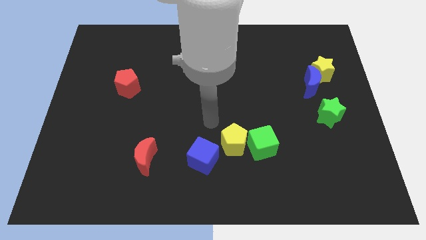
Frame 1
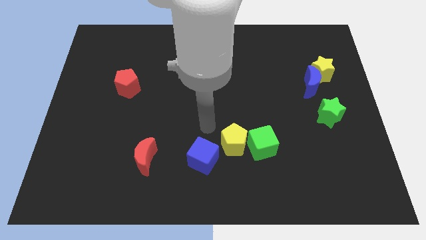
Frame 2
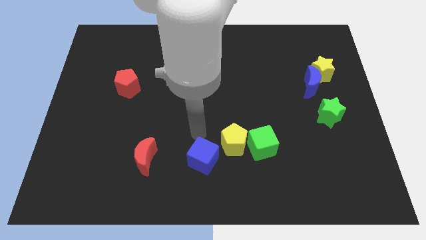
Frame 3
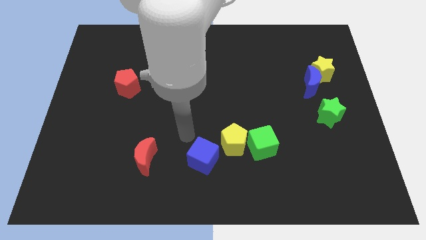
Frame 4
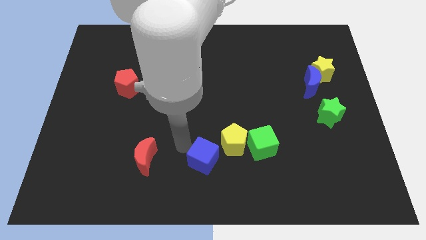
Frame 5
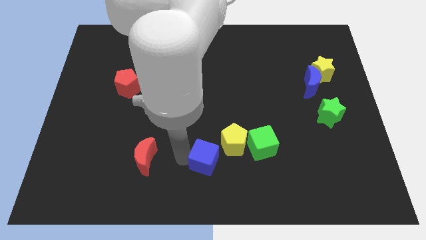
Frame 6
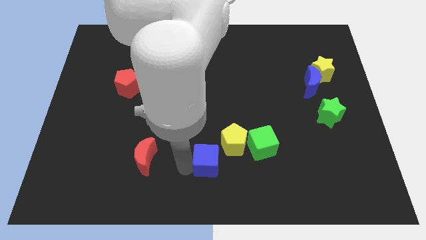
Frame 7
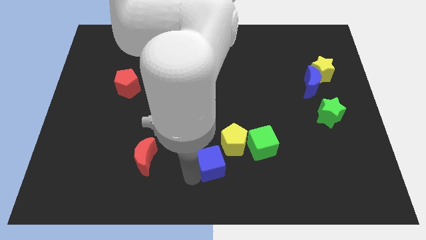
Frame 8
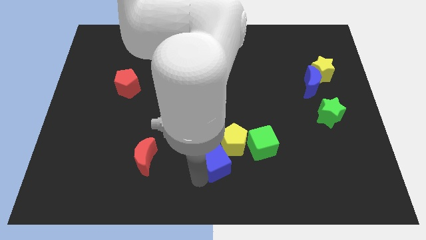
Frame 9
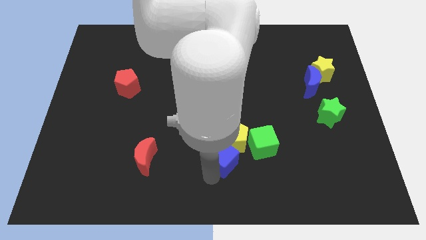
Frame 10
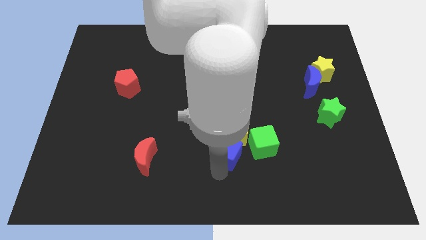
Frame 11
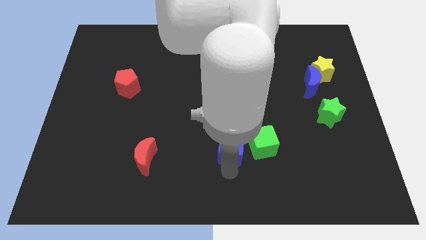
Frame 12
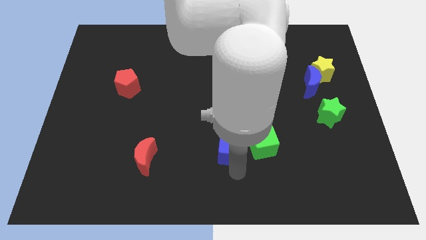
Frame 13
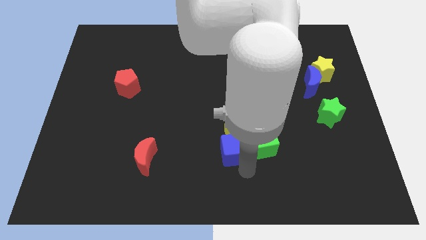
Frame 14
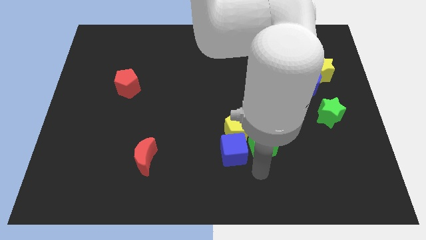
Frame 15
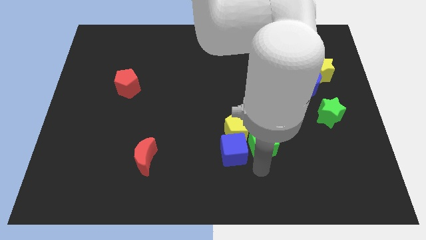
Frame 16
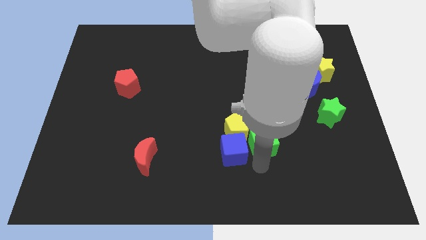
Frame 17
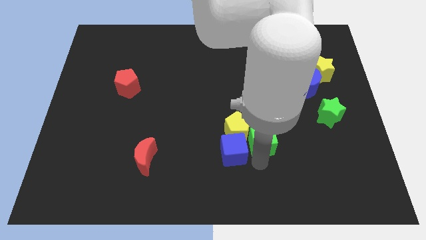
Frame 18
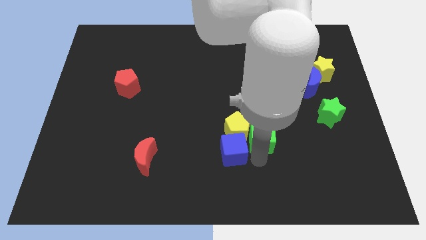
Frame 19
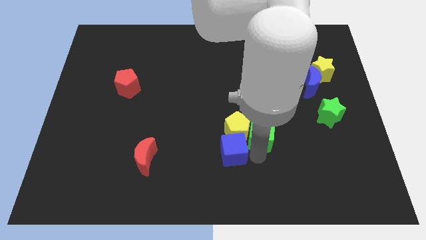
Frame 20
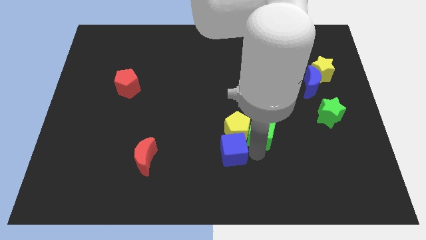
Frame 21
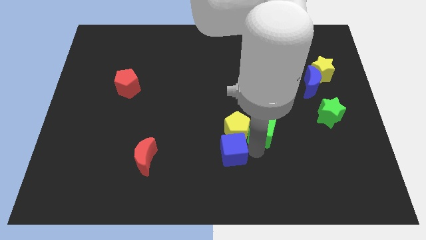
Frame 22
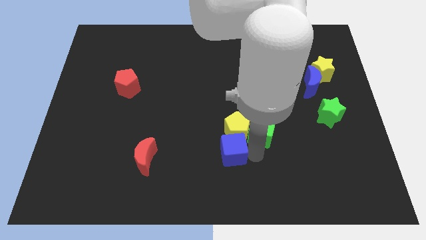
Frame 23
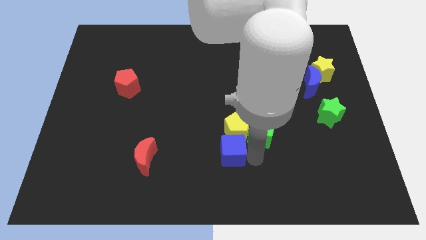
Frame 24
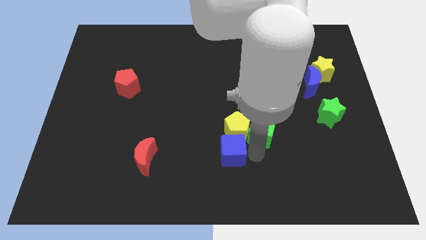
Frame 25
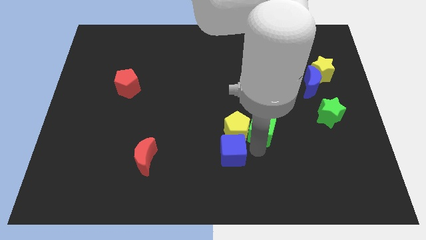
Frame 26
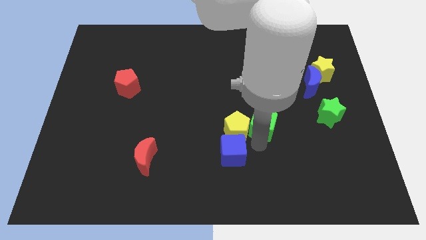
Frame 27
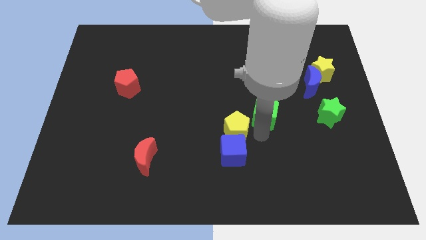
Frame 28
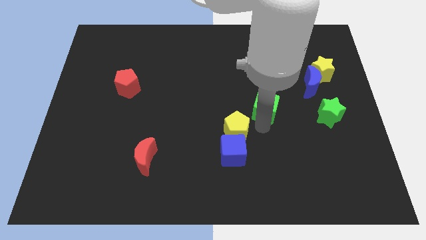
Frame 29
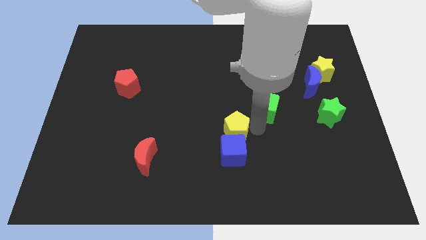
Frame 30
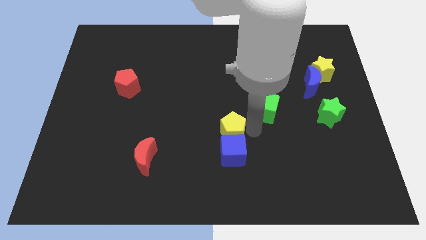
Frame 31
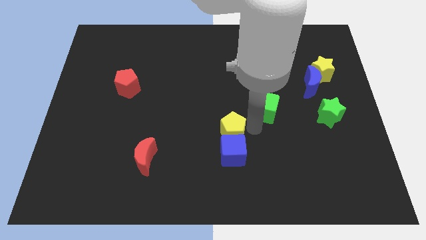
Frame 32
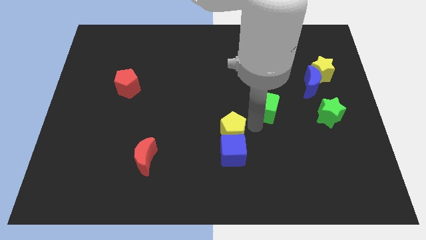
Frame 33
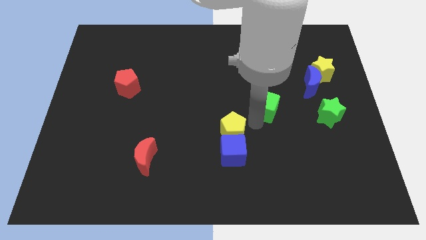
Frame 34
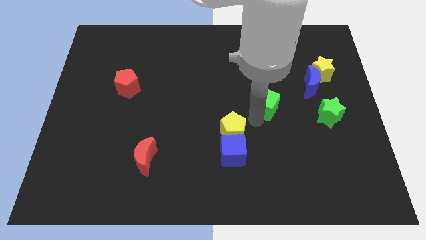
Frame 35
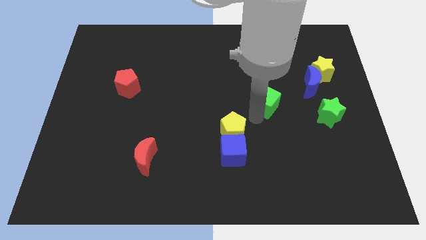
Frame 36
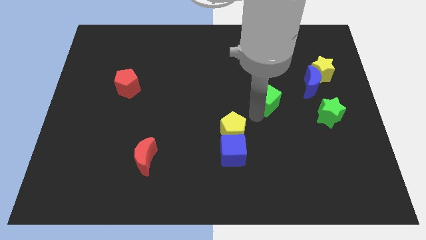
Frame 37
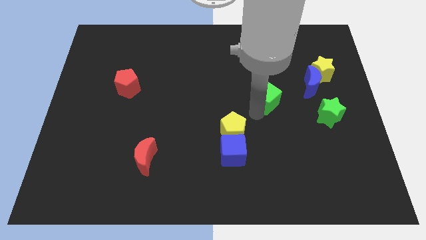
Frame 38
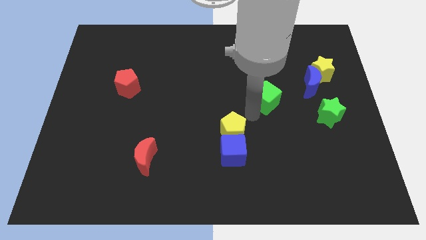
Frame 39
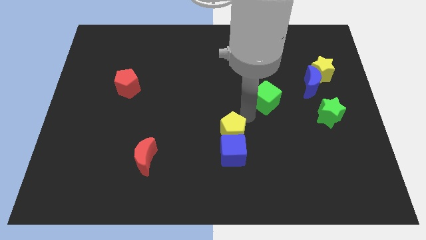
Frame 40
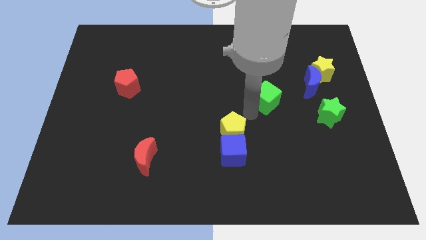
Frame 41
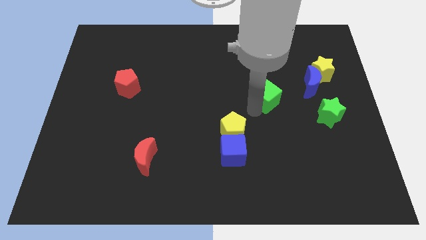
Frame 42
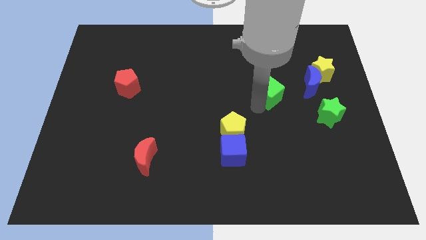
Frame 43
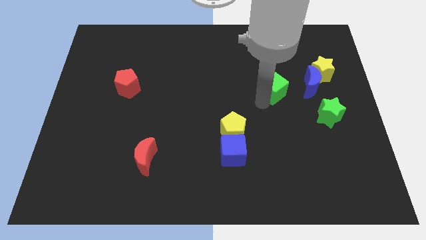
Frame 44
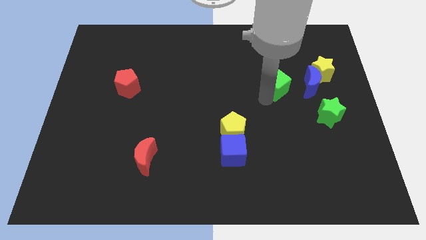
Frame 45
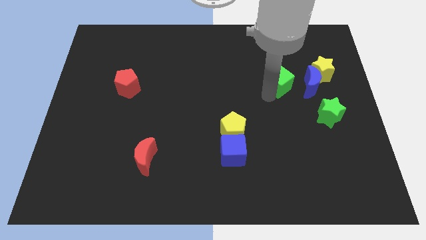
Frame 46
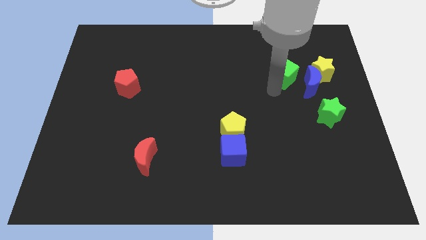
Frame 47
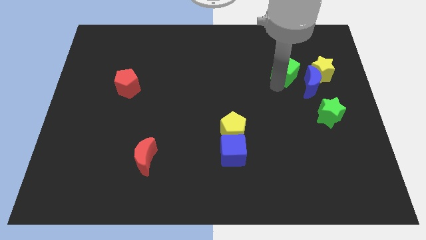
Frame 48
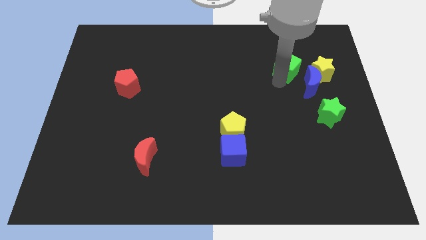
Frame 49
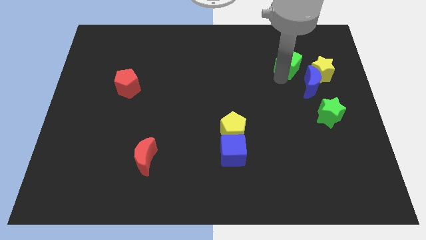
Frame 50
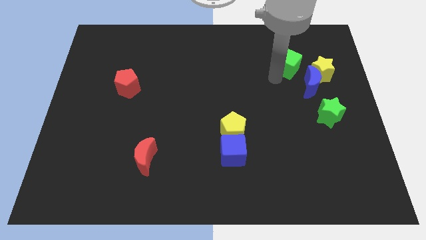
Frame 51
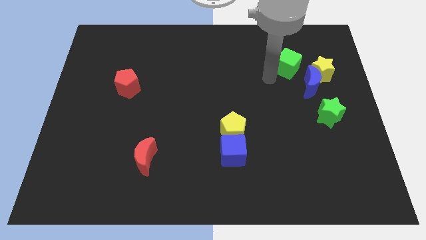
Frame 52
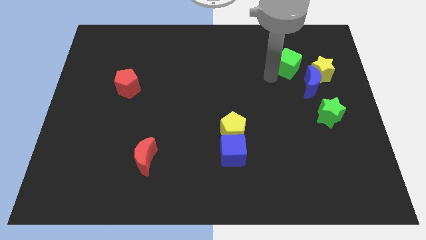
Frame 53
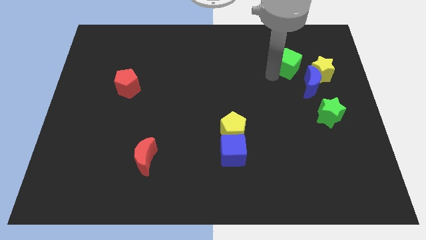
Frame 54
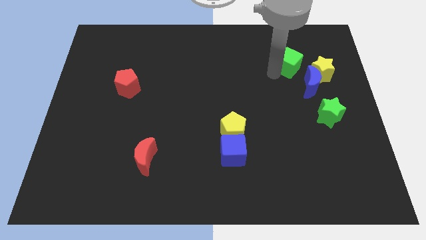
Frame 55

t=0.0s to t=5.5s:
put the green cube to the top of the blue moon

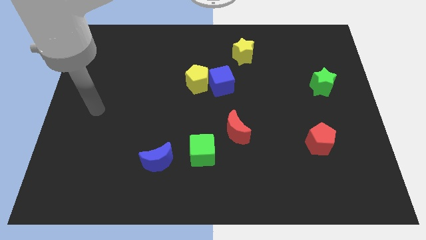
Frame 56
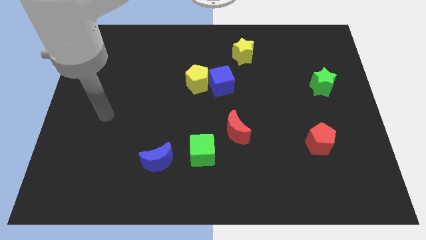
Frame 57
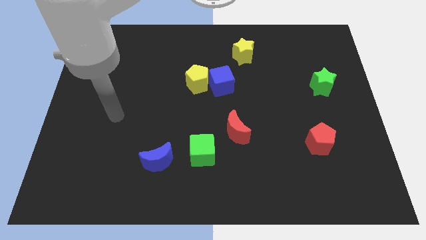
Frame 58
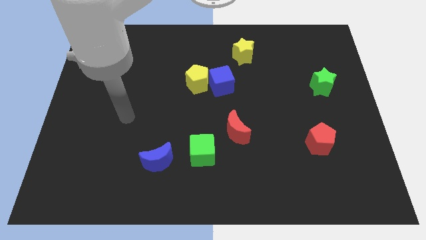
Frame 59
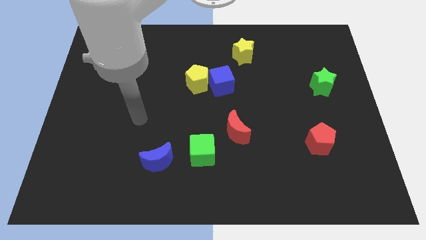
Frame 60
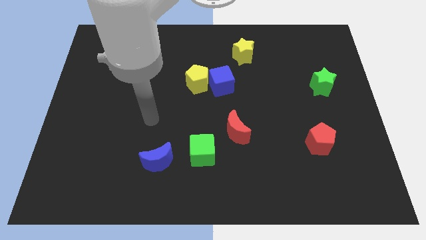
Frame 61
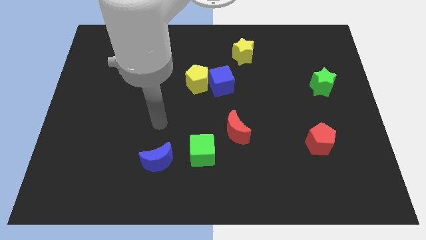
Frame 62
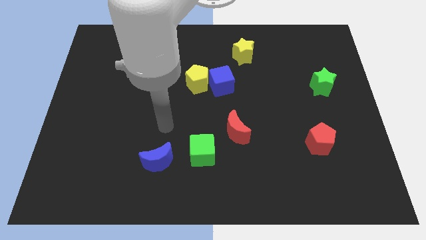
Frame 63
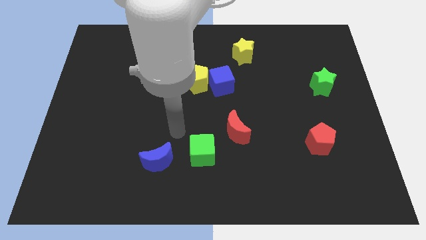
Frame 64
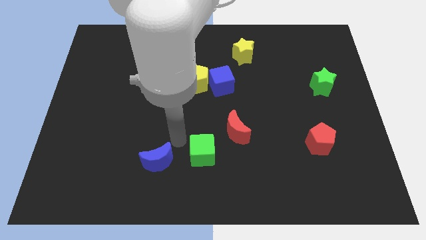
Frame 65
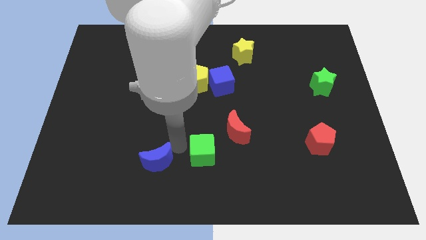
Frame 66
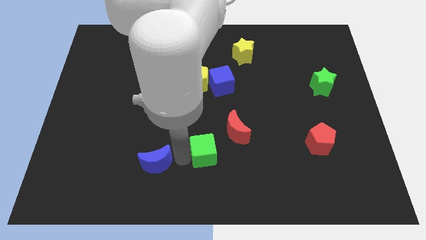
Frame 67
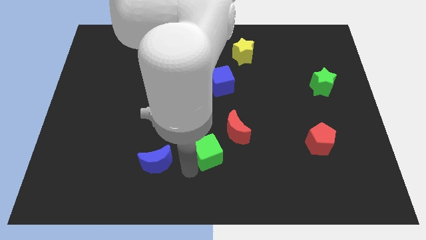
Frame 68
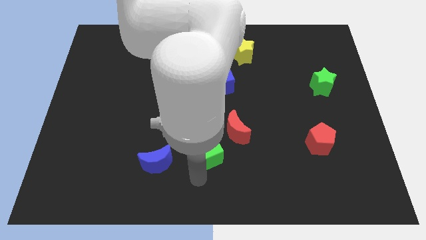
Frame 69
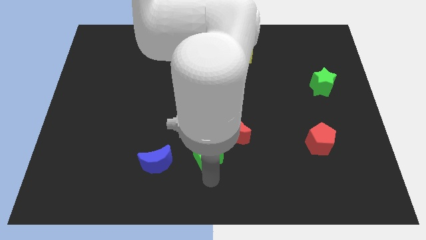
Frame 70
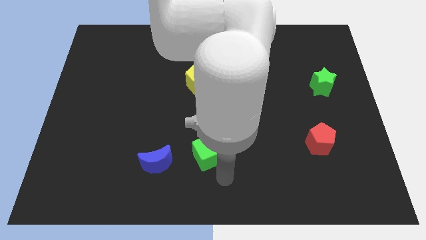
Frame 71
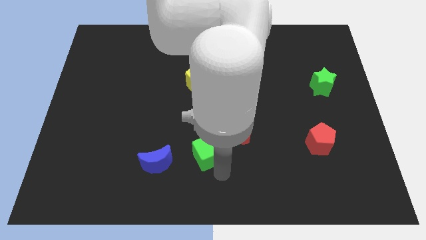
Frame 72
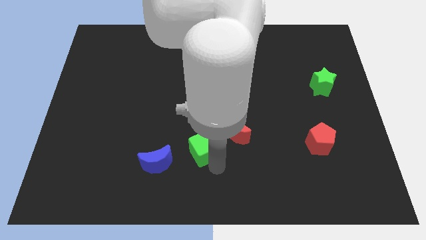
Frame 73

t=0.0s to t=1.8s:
put the green cube left of the red moon
